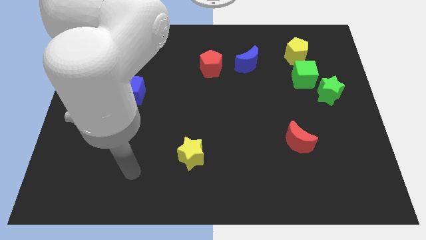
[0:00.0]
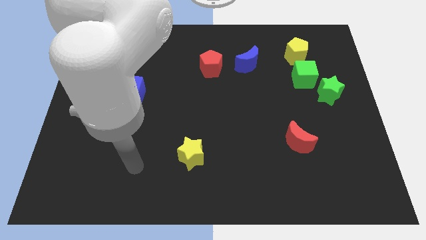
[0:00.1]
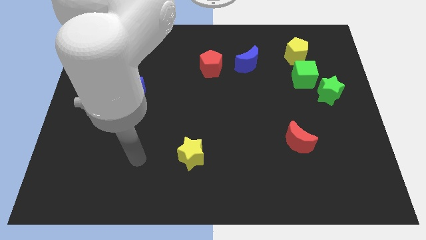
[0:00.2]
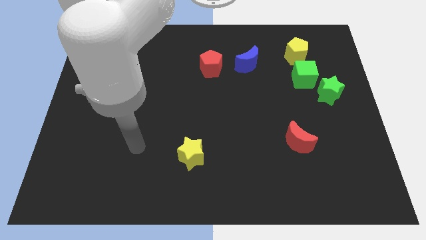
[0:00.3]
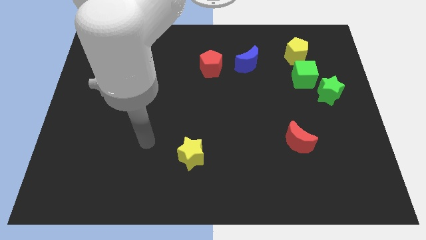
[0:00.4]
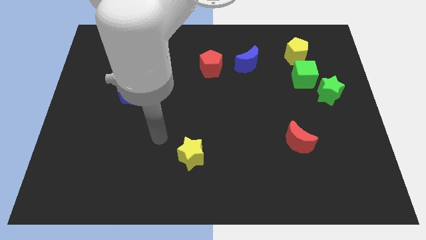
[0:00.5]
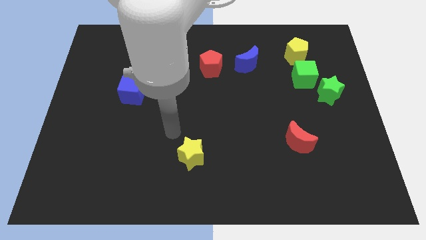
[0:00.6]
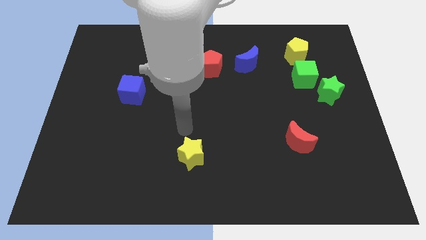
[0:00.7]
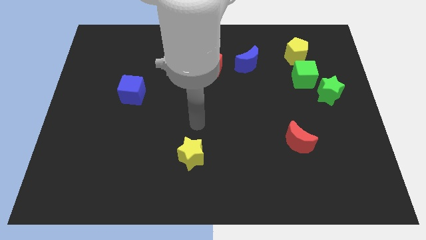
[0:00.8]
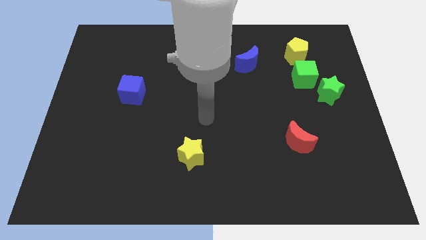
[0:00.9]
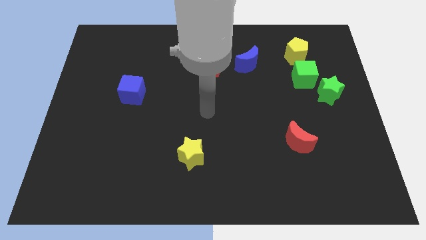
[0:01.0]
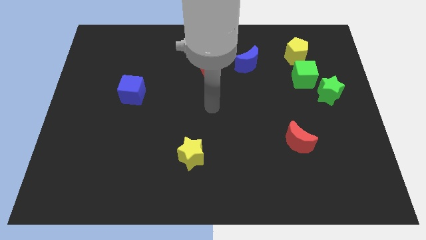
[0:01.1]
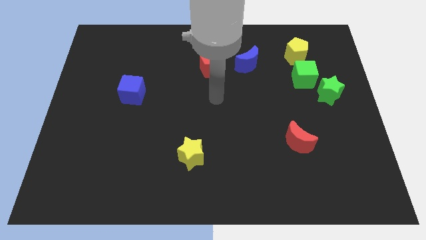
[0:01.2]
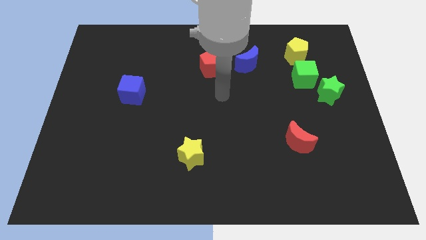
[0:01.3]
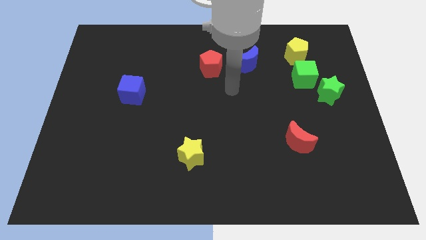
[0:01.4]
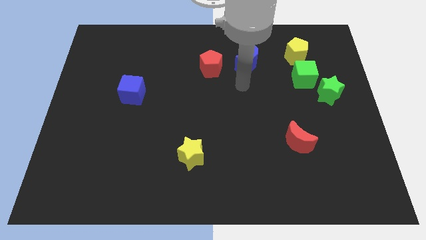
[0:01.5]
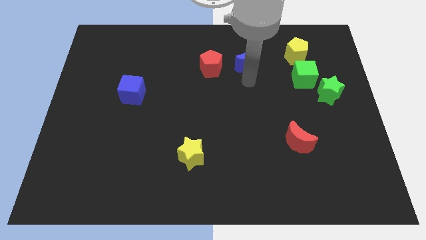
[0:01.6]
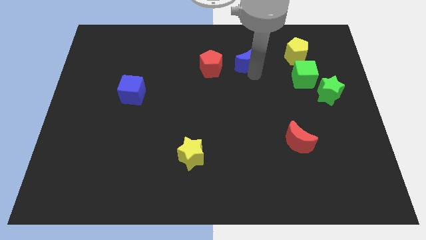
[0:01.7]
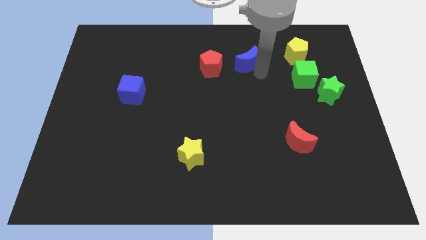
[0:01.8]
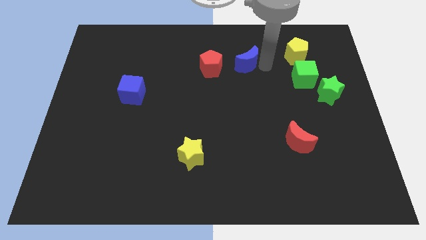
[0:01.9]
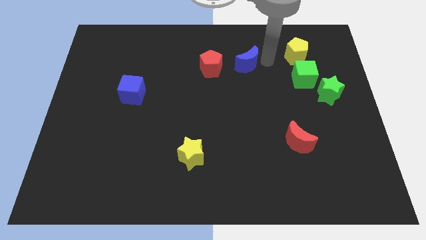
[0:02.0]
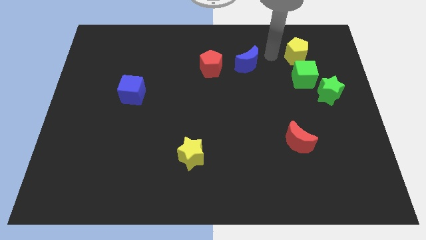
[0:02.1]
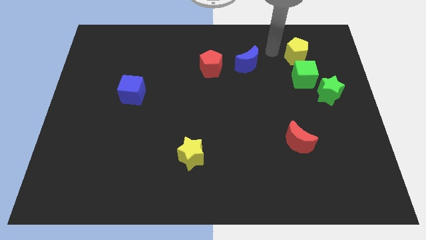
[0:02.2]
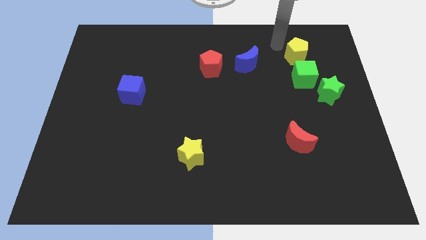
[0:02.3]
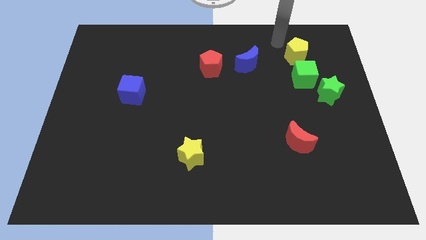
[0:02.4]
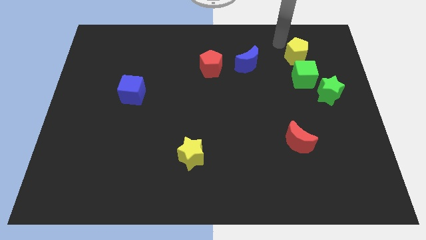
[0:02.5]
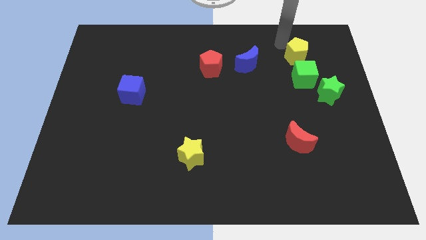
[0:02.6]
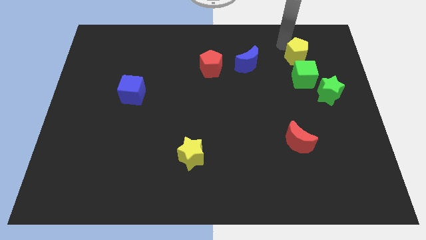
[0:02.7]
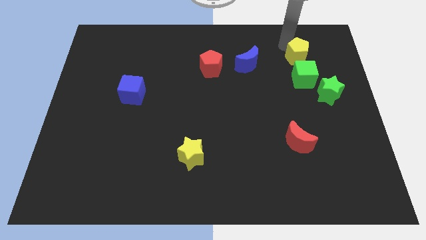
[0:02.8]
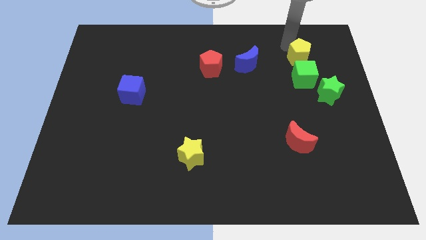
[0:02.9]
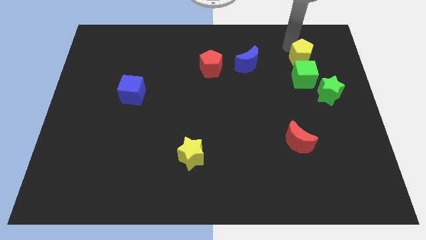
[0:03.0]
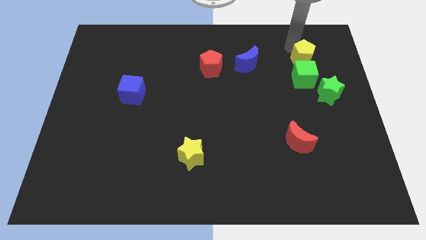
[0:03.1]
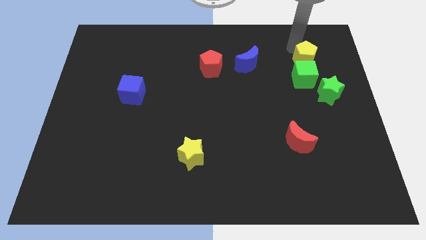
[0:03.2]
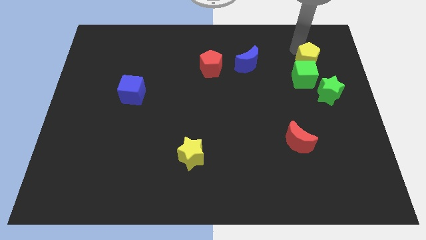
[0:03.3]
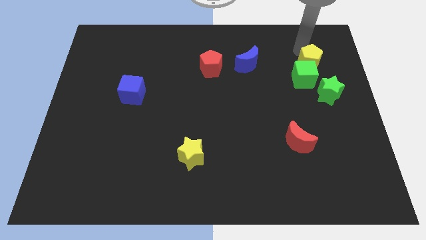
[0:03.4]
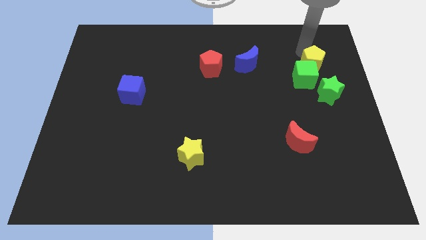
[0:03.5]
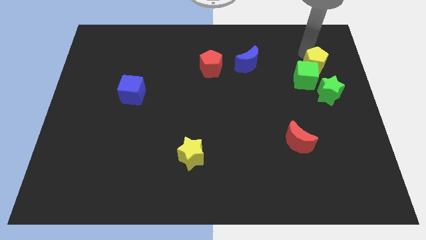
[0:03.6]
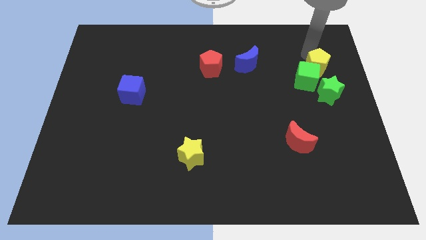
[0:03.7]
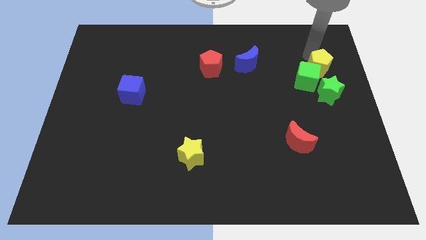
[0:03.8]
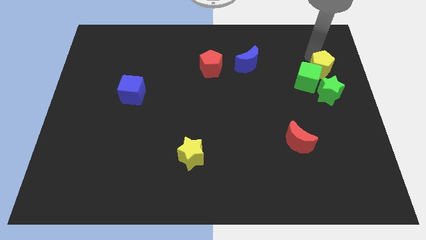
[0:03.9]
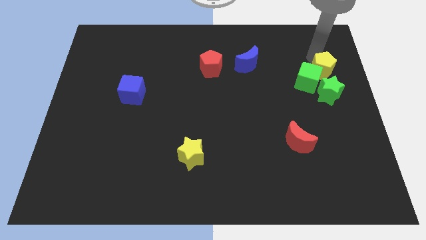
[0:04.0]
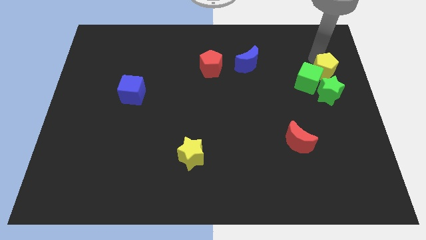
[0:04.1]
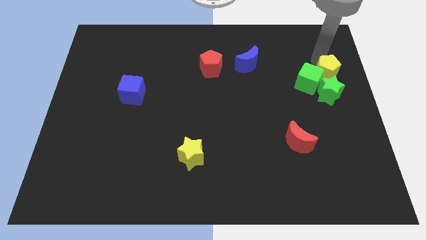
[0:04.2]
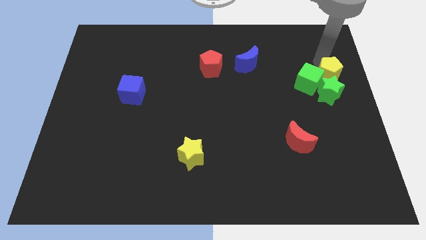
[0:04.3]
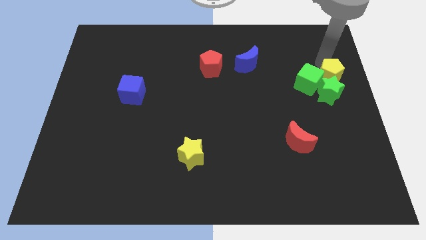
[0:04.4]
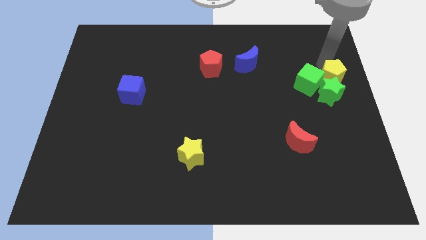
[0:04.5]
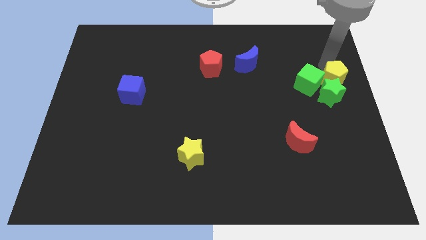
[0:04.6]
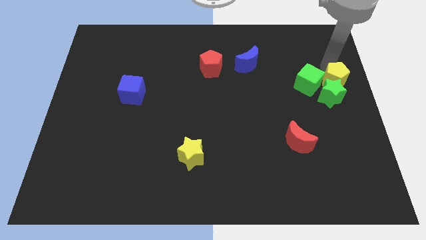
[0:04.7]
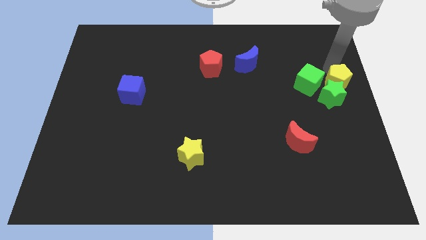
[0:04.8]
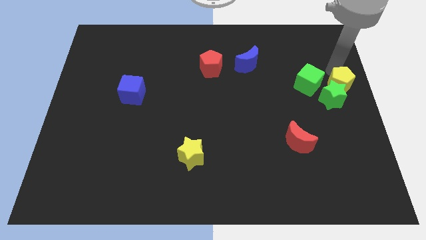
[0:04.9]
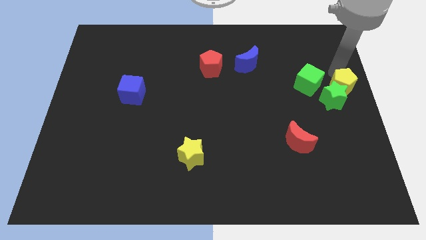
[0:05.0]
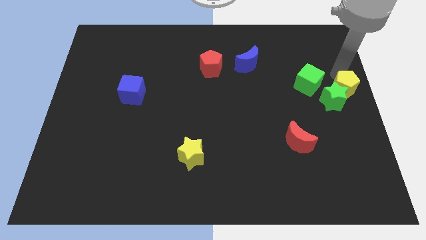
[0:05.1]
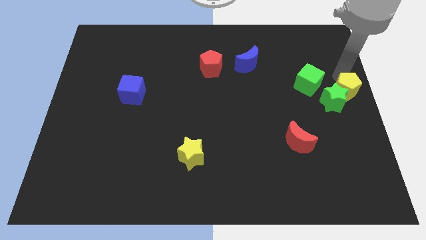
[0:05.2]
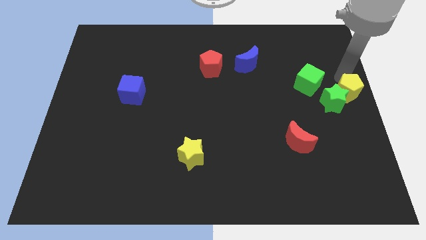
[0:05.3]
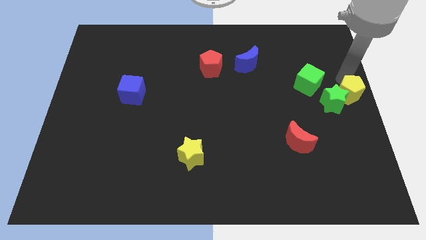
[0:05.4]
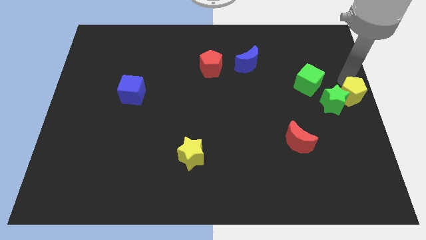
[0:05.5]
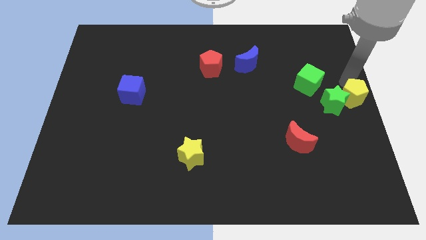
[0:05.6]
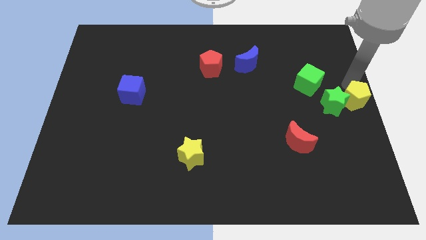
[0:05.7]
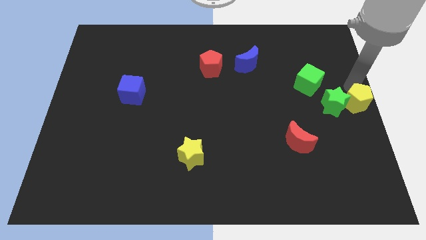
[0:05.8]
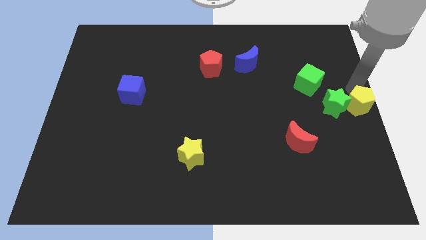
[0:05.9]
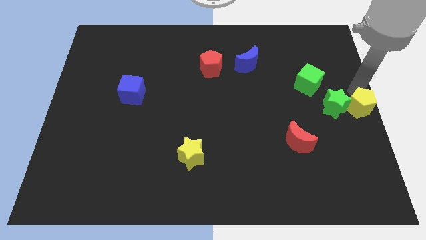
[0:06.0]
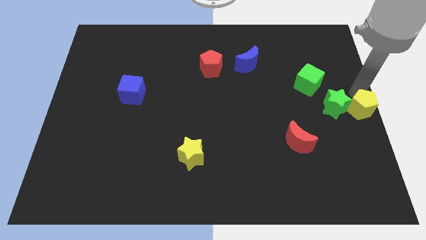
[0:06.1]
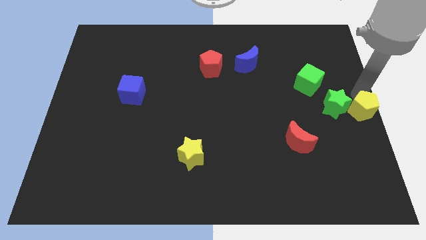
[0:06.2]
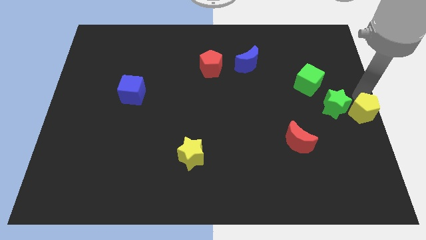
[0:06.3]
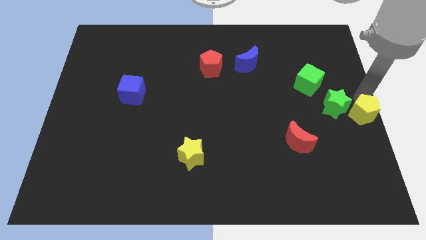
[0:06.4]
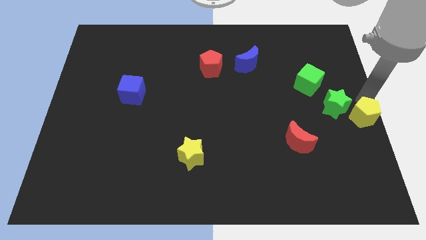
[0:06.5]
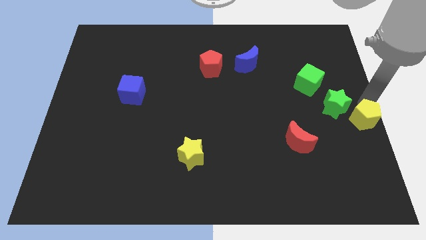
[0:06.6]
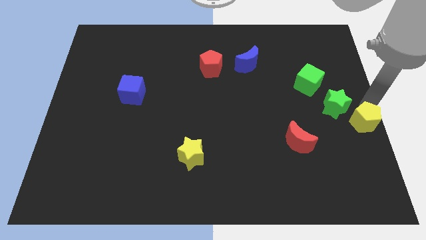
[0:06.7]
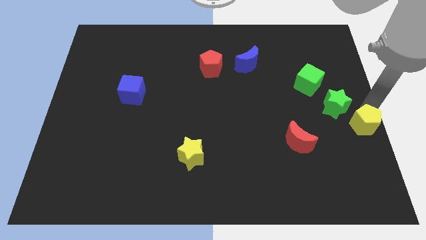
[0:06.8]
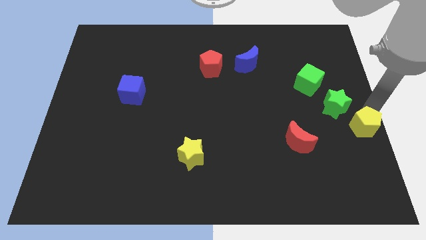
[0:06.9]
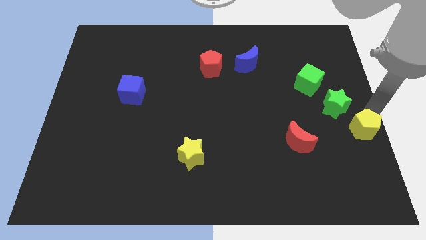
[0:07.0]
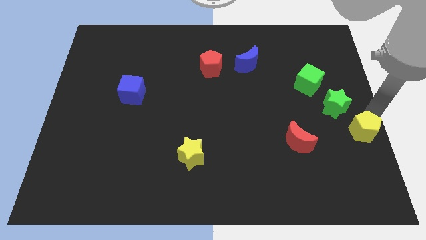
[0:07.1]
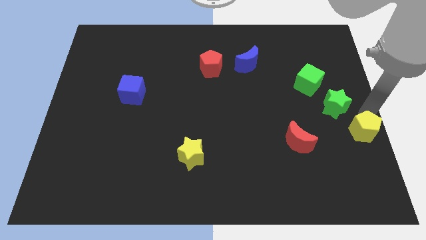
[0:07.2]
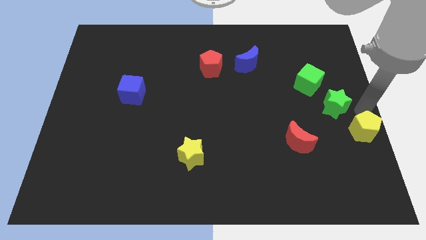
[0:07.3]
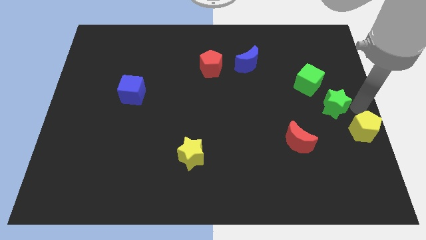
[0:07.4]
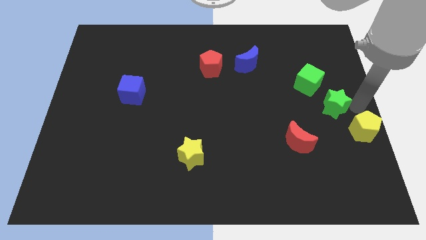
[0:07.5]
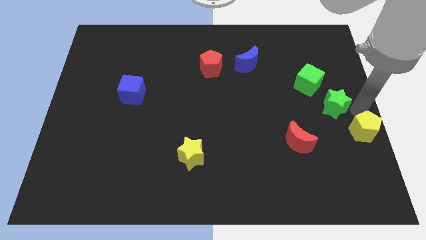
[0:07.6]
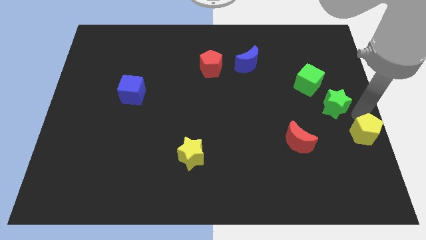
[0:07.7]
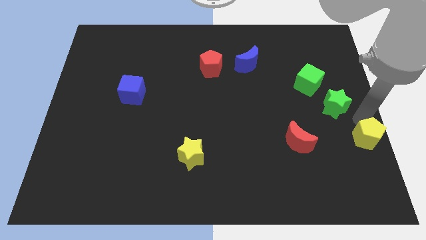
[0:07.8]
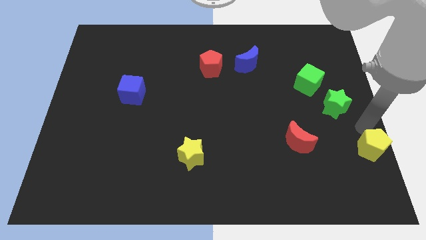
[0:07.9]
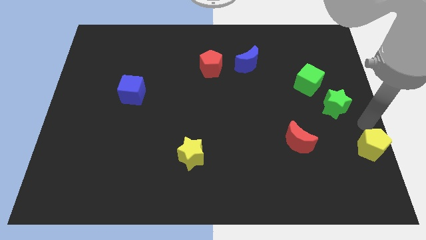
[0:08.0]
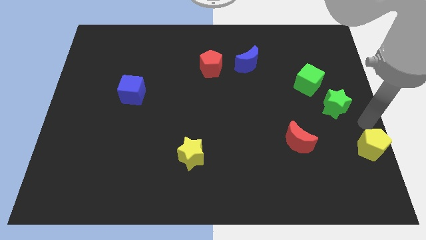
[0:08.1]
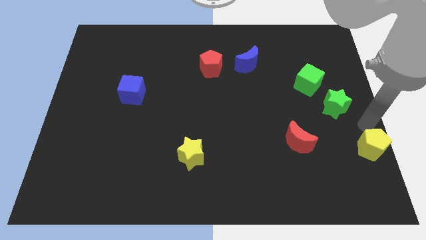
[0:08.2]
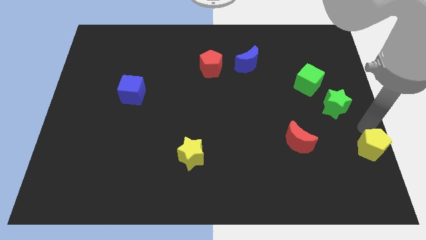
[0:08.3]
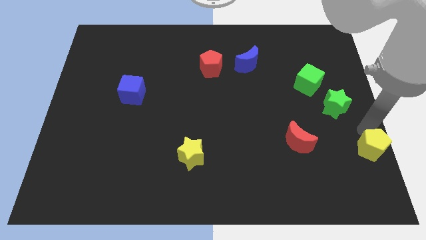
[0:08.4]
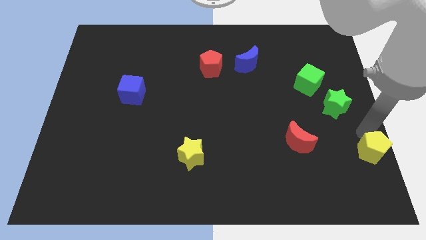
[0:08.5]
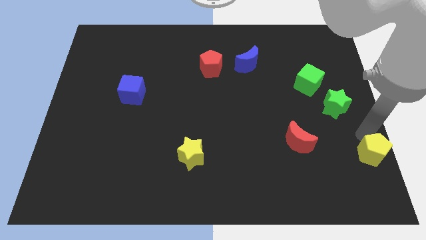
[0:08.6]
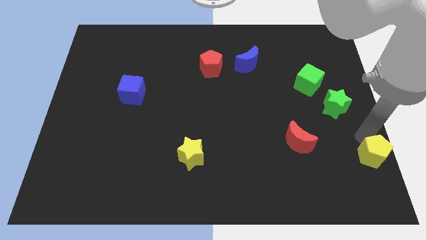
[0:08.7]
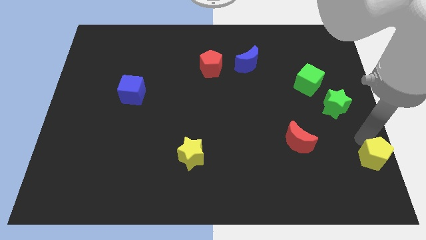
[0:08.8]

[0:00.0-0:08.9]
move the yellow pentagon to the bottom right corner
